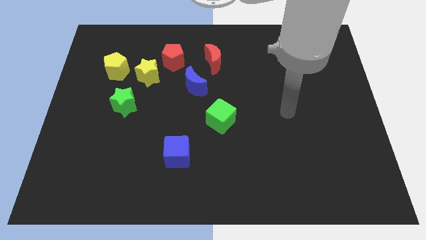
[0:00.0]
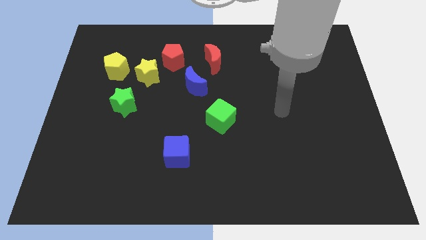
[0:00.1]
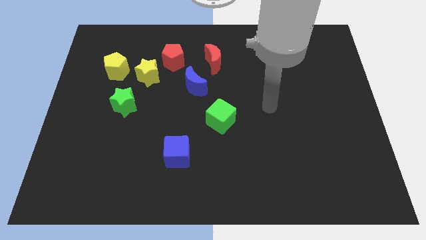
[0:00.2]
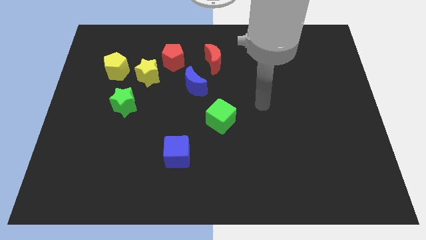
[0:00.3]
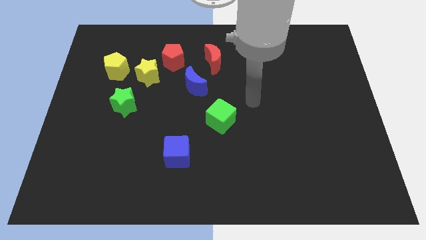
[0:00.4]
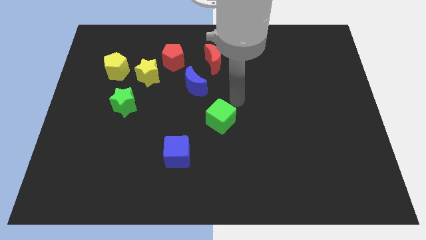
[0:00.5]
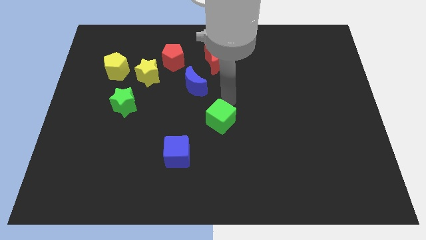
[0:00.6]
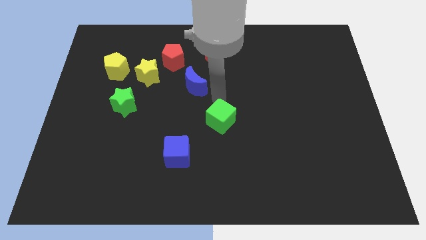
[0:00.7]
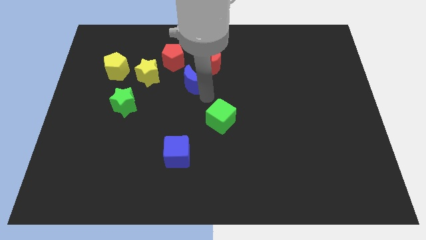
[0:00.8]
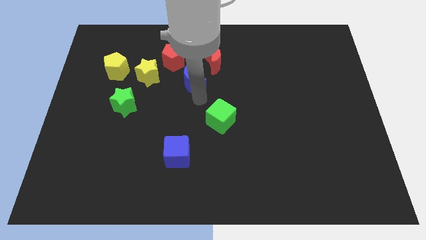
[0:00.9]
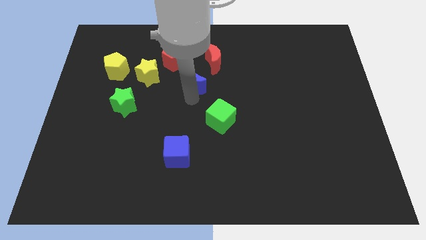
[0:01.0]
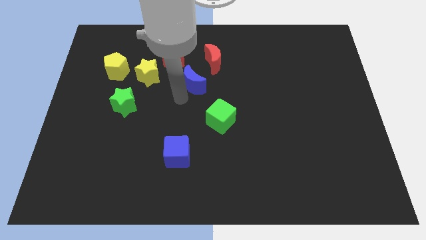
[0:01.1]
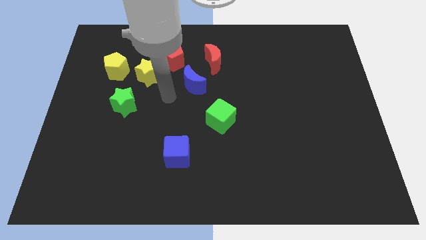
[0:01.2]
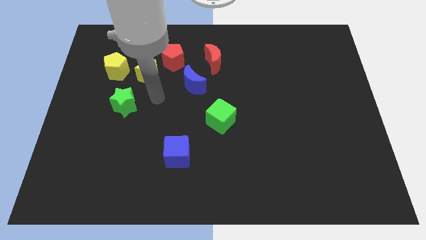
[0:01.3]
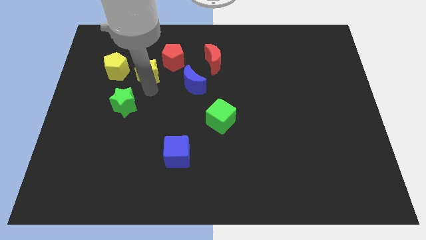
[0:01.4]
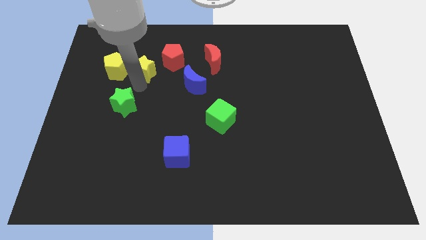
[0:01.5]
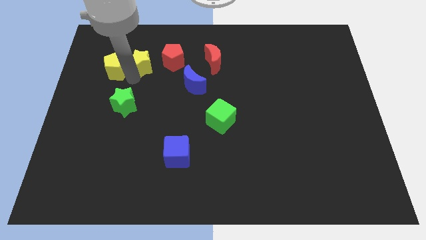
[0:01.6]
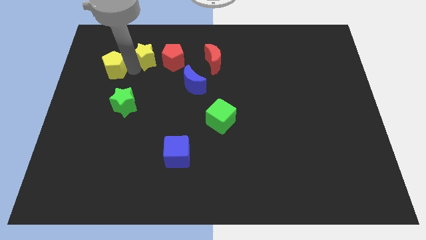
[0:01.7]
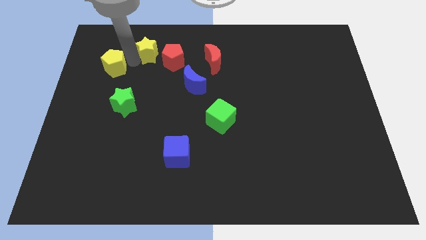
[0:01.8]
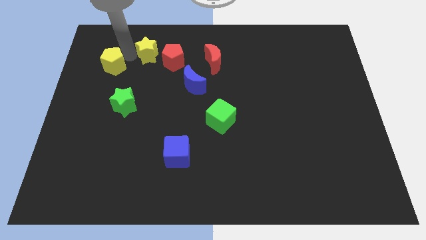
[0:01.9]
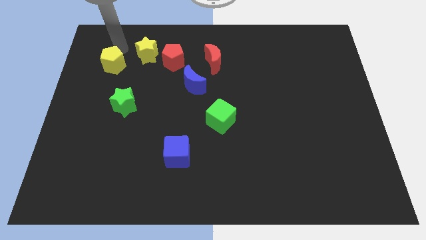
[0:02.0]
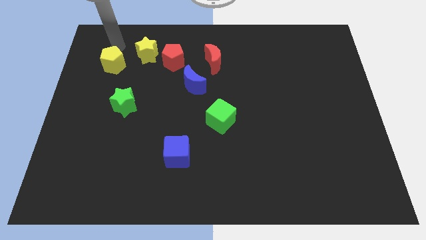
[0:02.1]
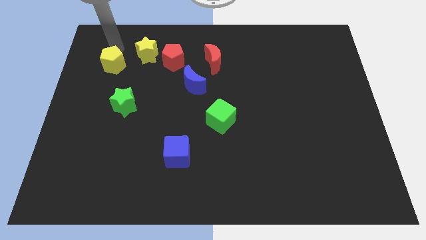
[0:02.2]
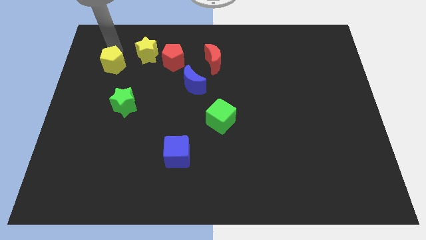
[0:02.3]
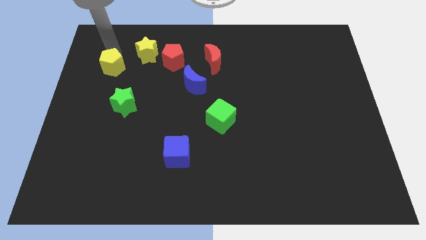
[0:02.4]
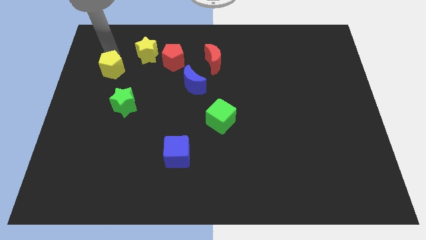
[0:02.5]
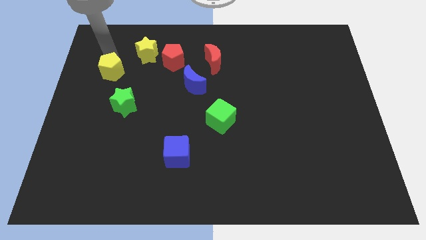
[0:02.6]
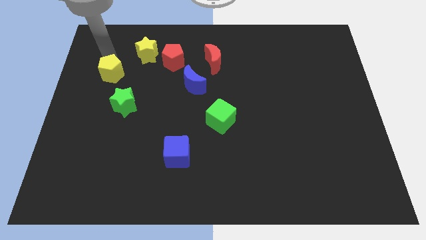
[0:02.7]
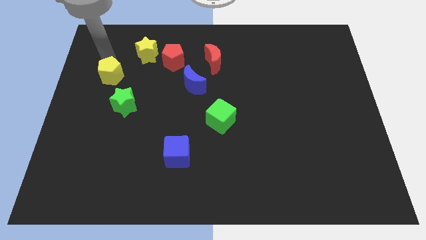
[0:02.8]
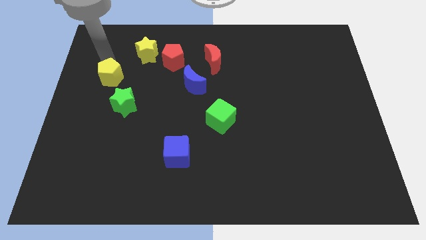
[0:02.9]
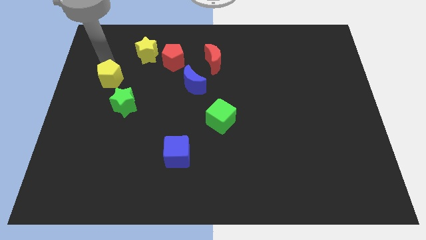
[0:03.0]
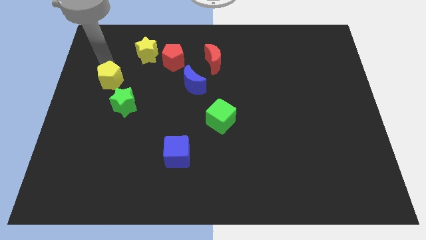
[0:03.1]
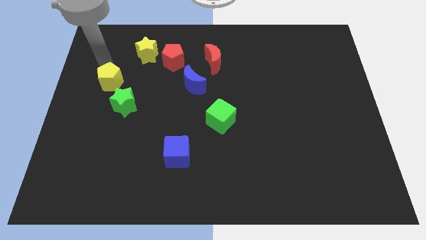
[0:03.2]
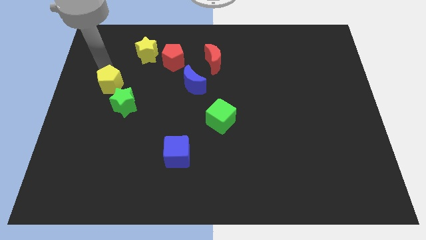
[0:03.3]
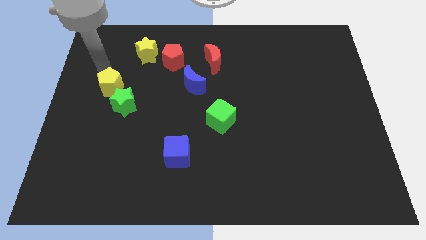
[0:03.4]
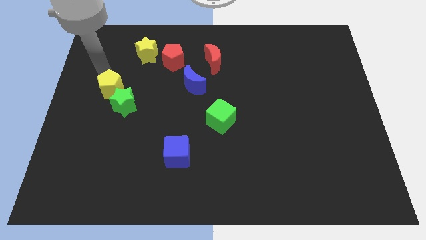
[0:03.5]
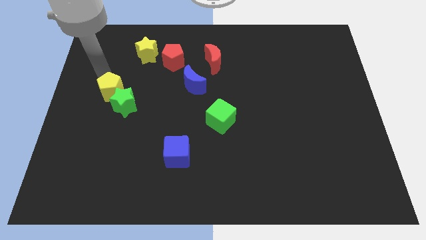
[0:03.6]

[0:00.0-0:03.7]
slightly move the yellow pentagon downwards

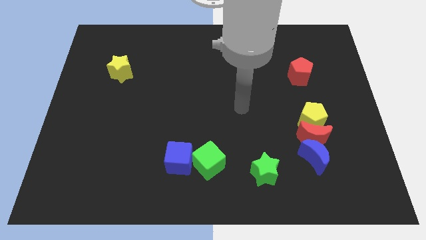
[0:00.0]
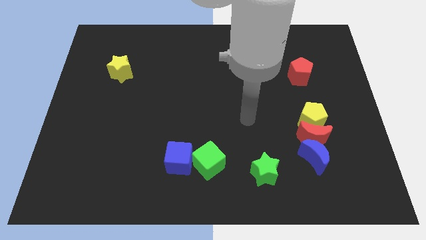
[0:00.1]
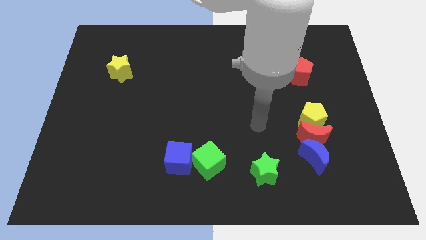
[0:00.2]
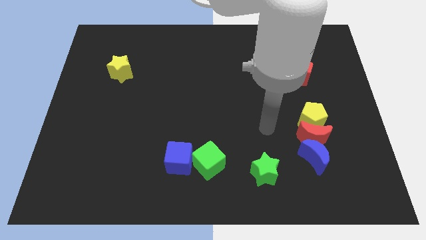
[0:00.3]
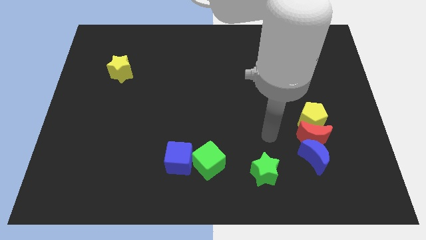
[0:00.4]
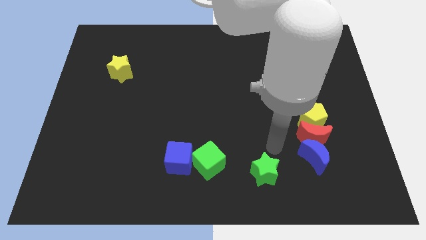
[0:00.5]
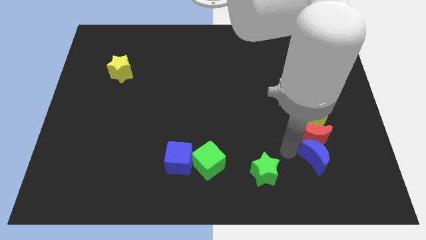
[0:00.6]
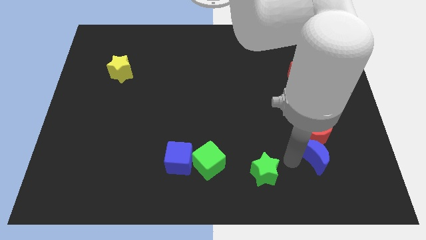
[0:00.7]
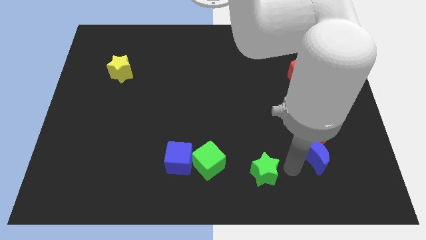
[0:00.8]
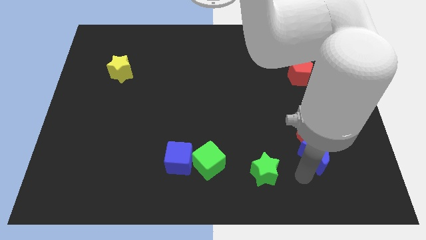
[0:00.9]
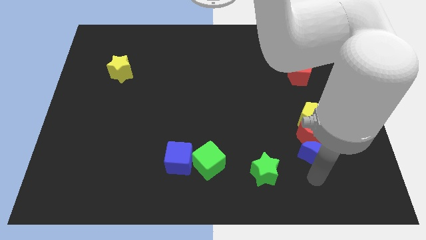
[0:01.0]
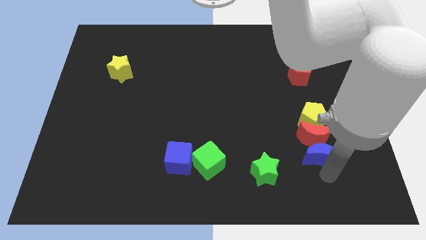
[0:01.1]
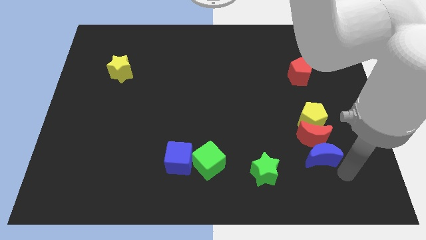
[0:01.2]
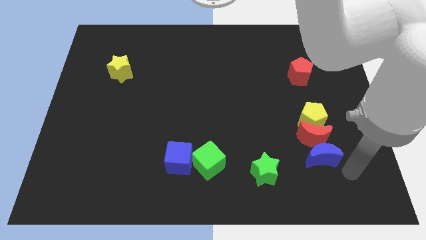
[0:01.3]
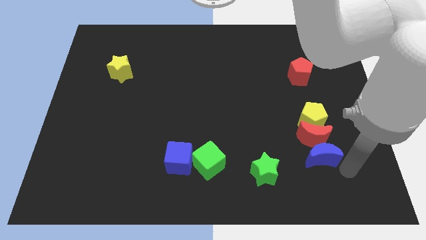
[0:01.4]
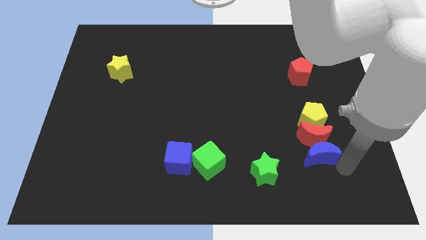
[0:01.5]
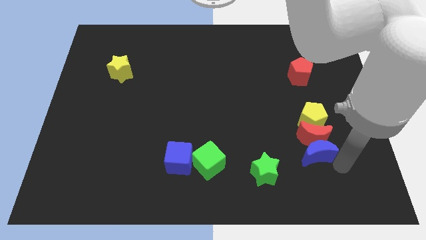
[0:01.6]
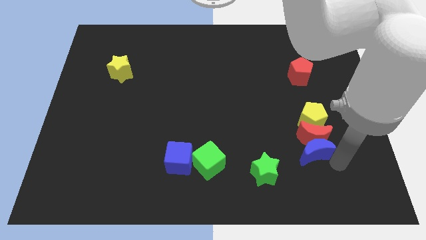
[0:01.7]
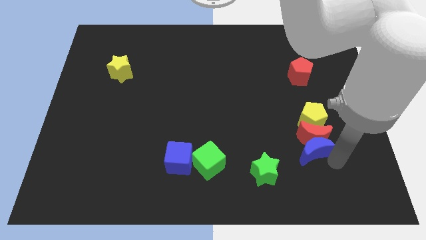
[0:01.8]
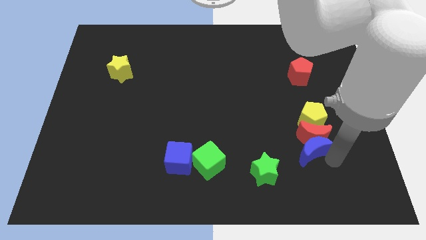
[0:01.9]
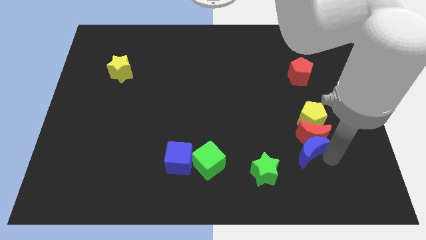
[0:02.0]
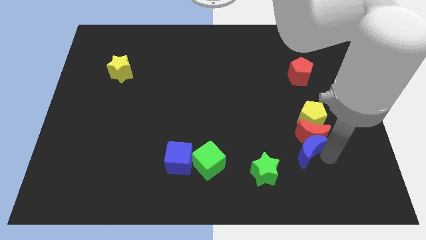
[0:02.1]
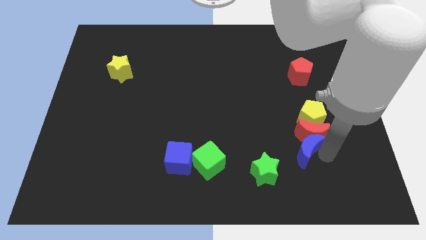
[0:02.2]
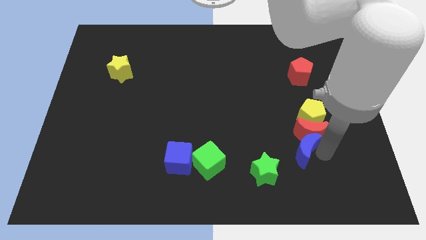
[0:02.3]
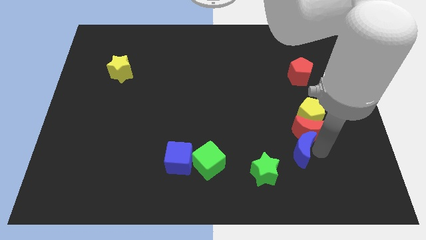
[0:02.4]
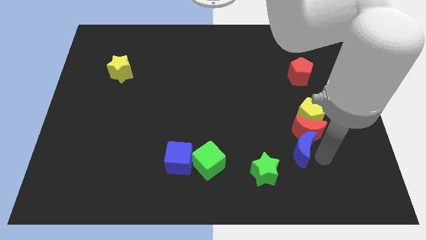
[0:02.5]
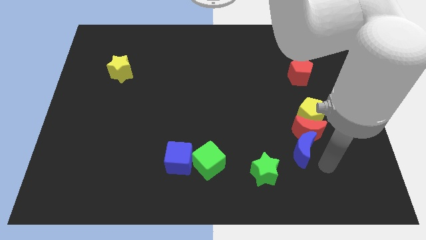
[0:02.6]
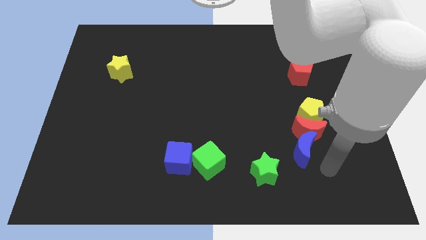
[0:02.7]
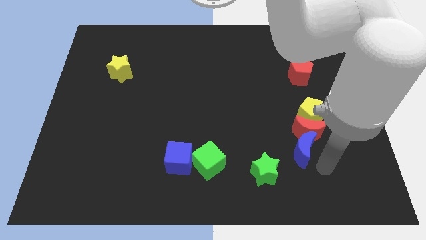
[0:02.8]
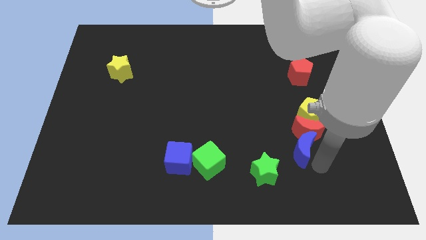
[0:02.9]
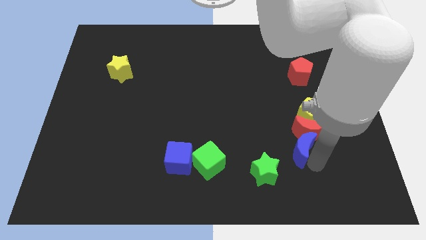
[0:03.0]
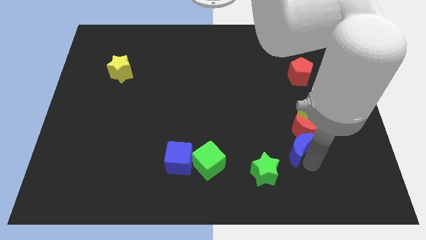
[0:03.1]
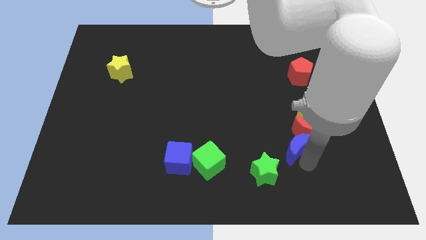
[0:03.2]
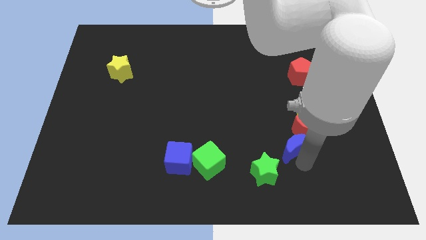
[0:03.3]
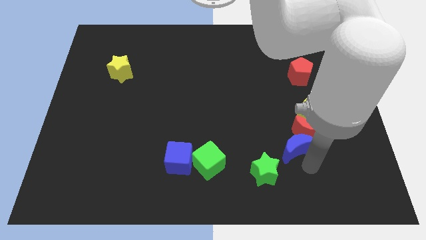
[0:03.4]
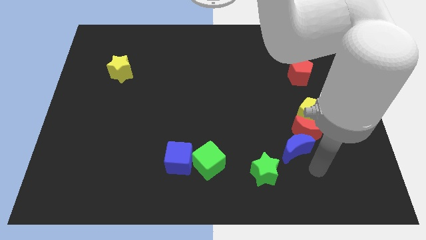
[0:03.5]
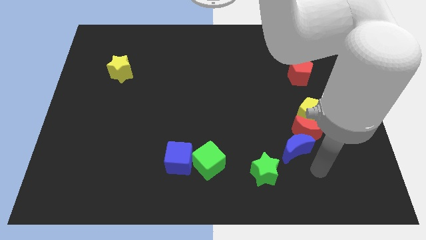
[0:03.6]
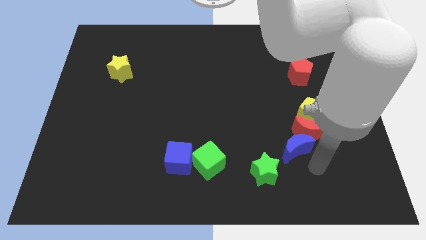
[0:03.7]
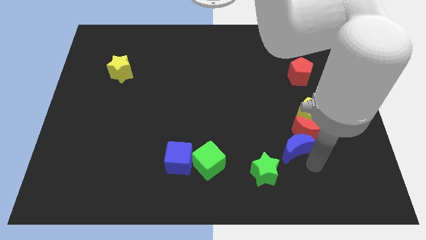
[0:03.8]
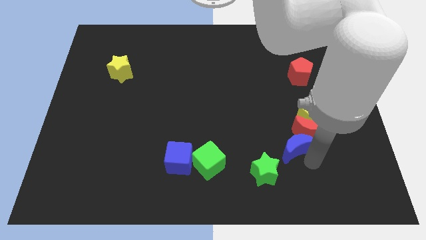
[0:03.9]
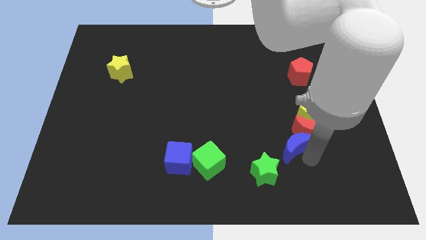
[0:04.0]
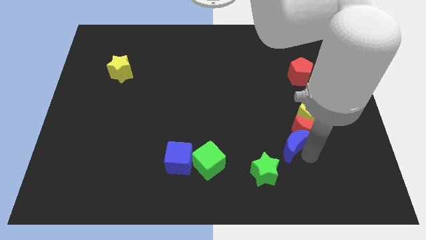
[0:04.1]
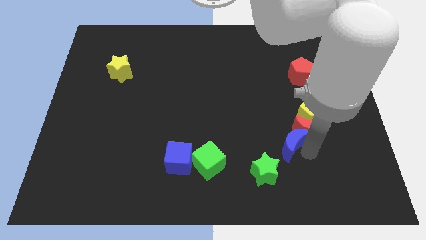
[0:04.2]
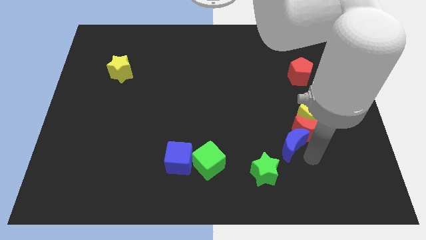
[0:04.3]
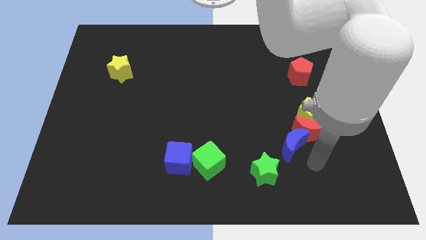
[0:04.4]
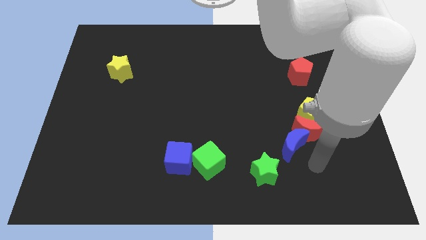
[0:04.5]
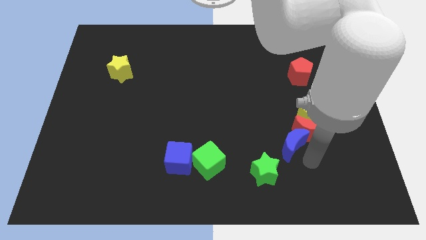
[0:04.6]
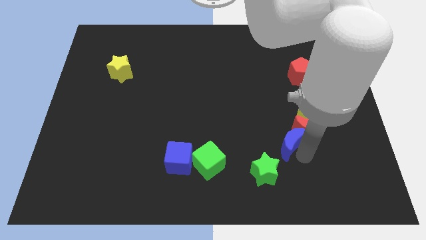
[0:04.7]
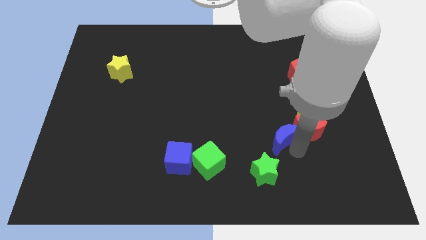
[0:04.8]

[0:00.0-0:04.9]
slightly slide the blue moon diagonally upwards and to the left
